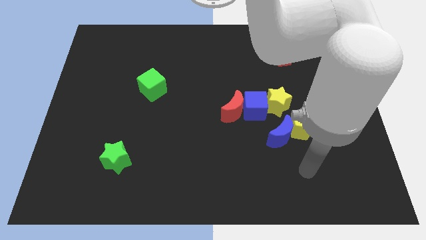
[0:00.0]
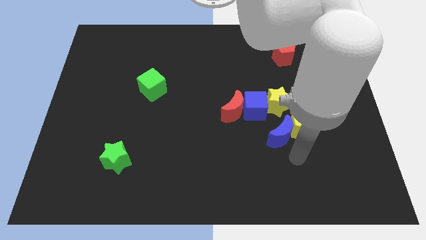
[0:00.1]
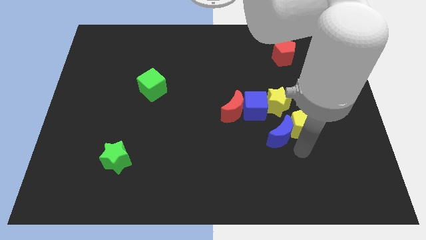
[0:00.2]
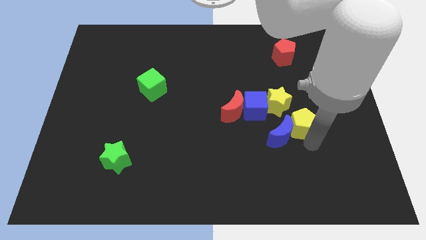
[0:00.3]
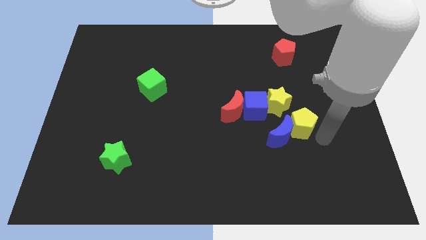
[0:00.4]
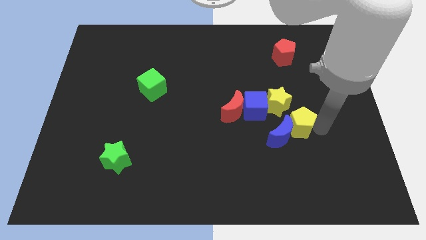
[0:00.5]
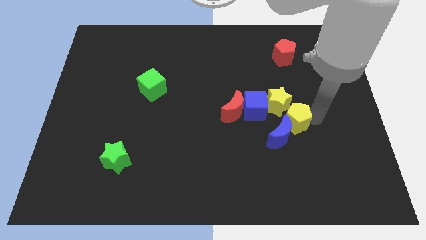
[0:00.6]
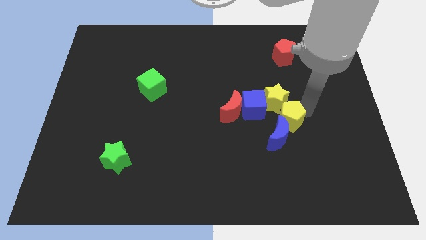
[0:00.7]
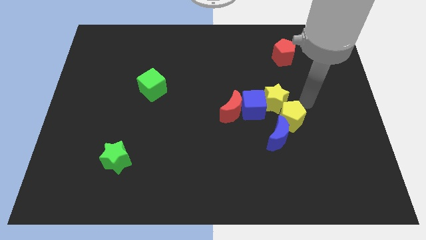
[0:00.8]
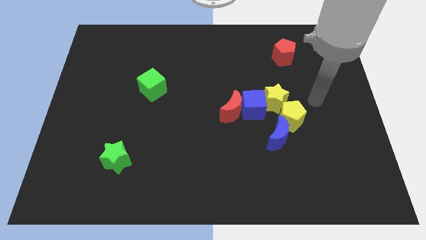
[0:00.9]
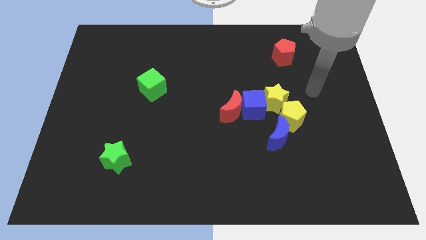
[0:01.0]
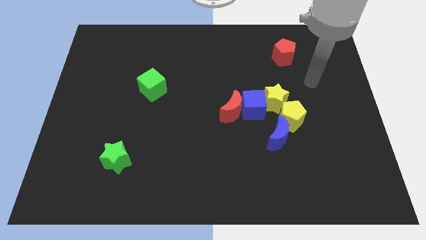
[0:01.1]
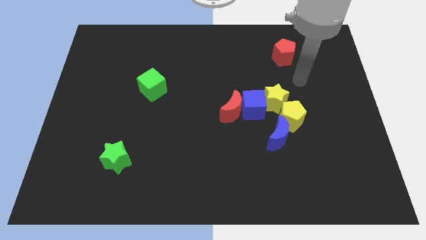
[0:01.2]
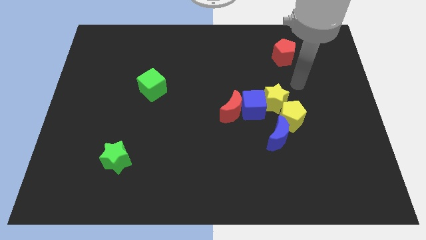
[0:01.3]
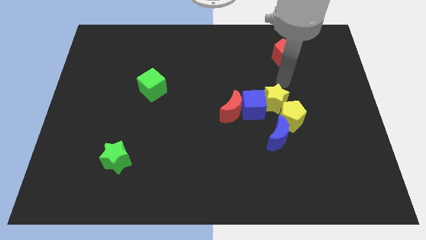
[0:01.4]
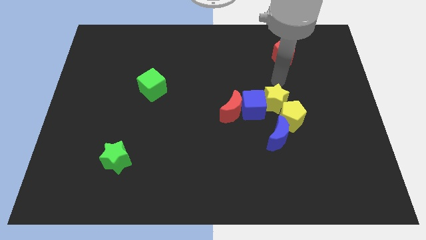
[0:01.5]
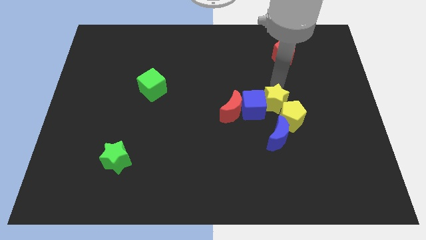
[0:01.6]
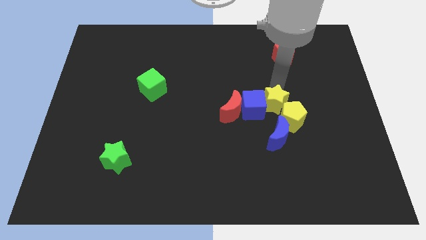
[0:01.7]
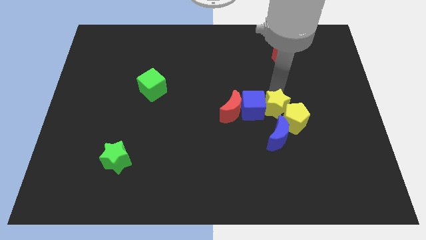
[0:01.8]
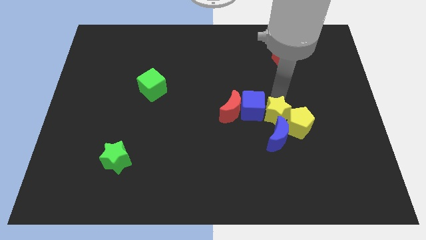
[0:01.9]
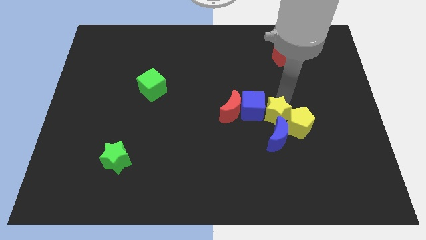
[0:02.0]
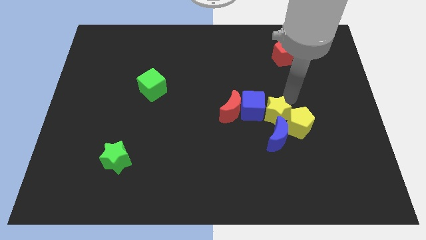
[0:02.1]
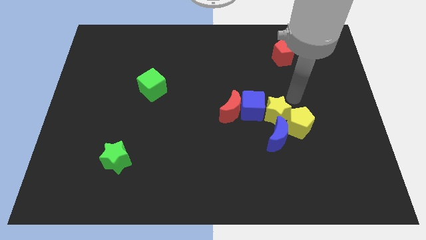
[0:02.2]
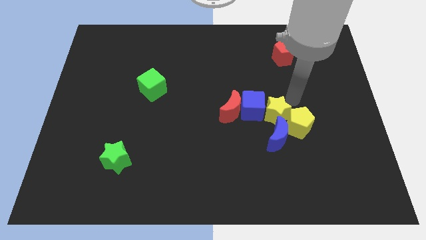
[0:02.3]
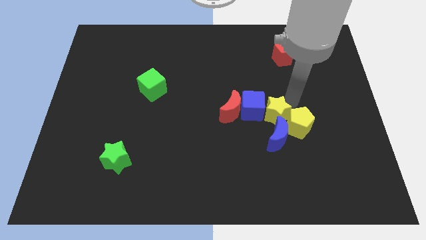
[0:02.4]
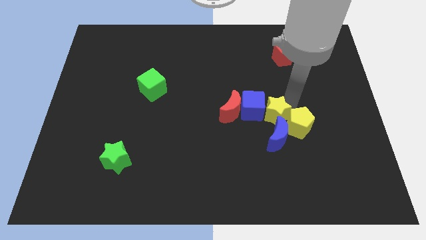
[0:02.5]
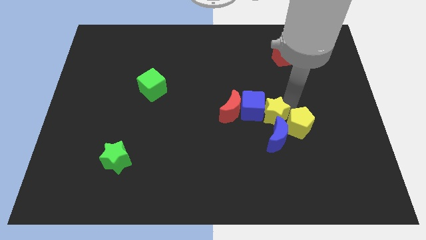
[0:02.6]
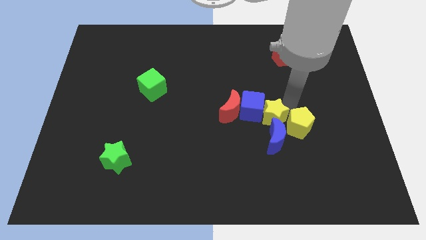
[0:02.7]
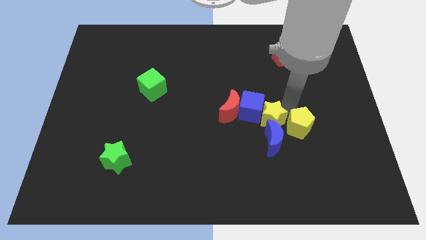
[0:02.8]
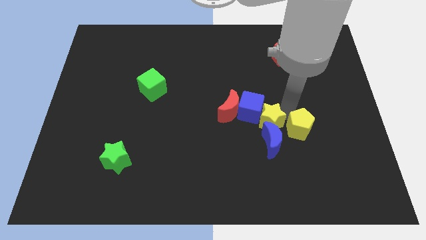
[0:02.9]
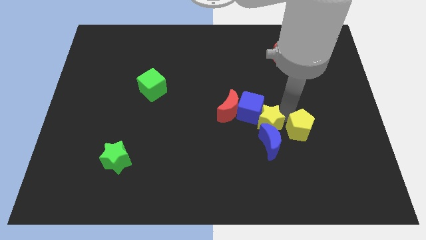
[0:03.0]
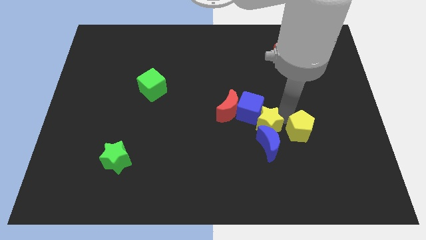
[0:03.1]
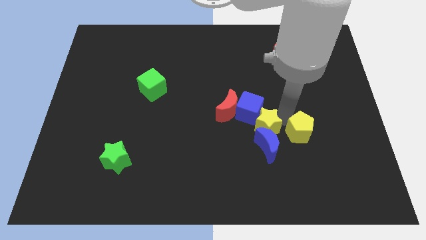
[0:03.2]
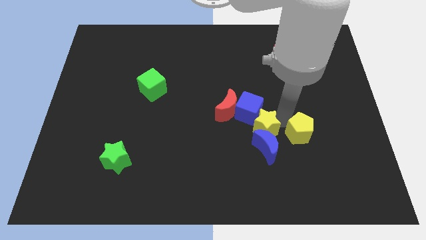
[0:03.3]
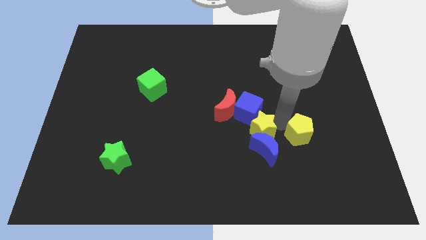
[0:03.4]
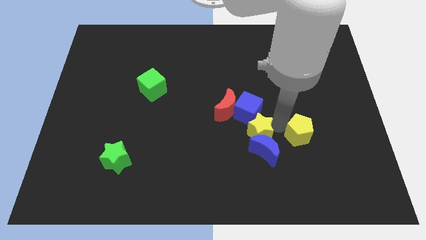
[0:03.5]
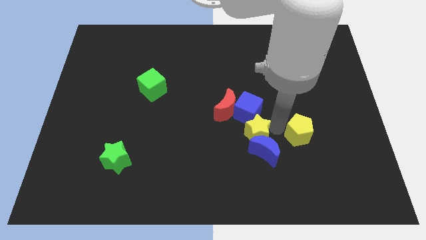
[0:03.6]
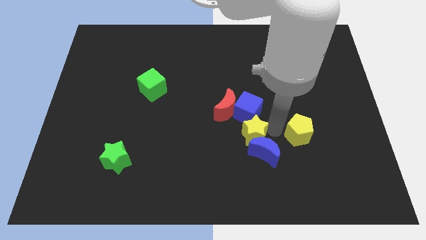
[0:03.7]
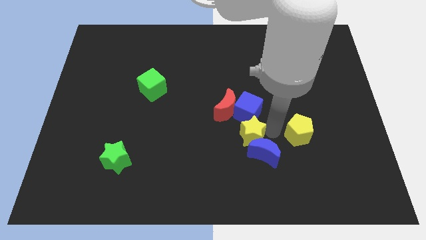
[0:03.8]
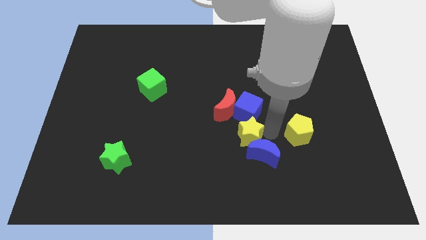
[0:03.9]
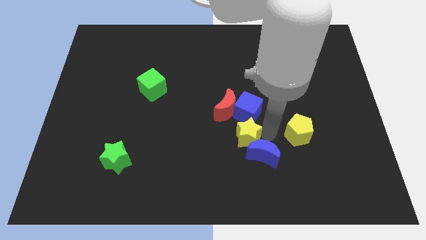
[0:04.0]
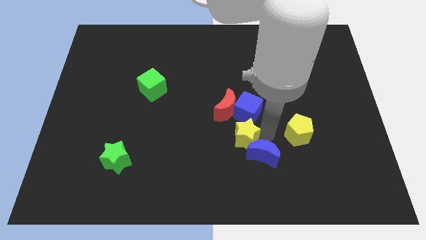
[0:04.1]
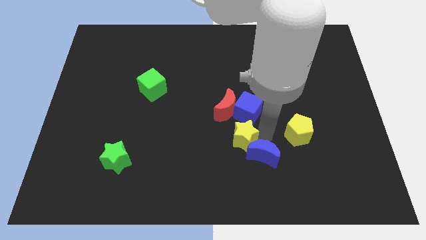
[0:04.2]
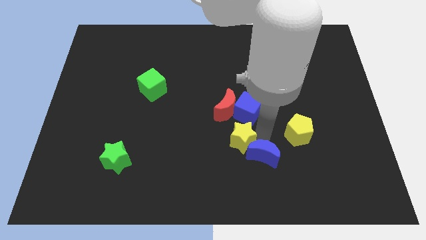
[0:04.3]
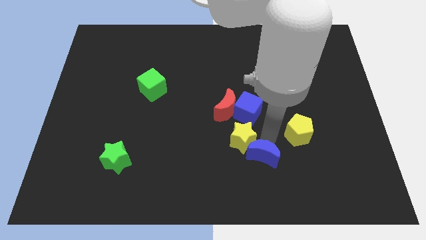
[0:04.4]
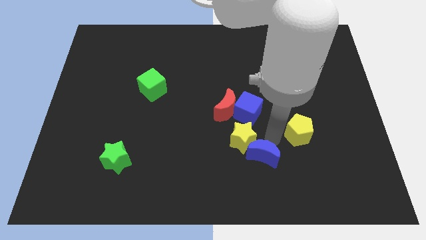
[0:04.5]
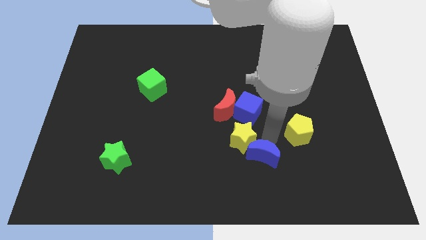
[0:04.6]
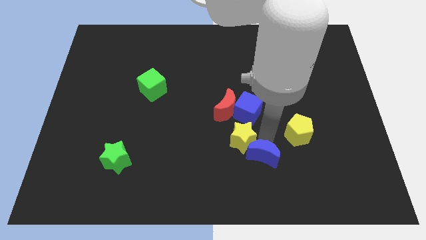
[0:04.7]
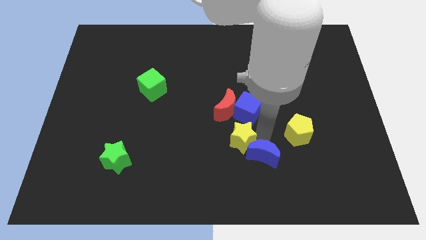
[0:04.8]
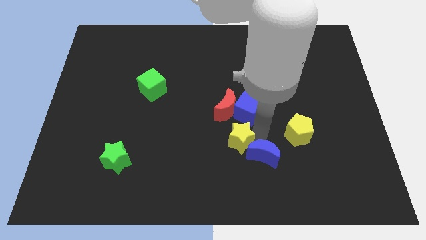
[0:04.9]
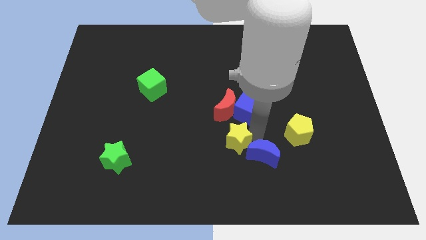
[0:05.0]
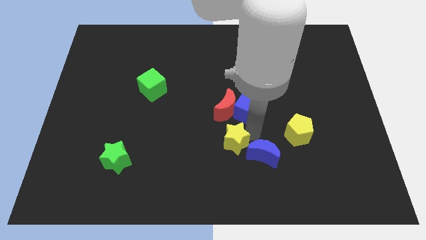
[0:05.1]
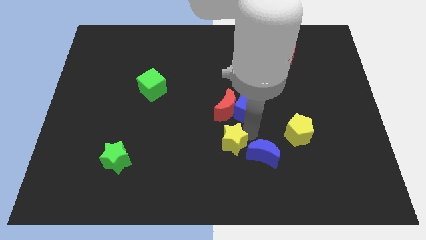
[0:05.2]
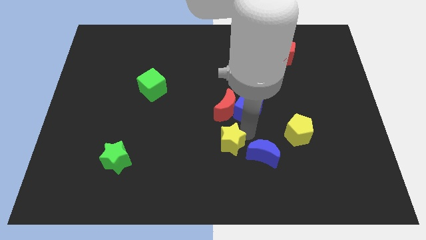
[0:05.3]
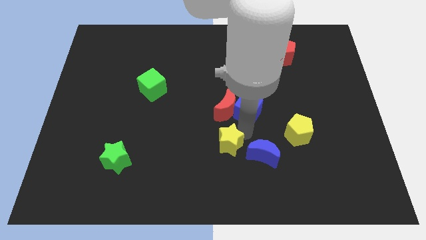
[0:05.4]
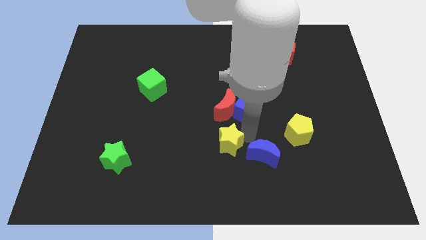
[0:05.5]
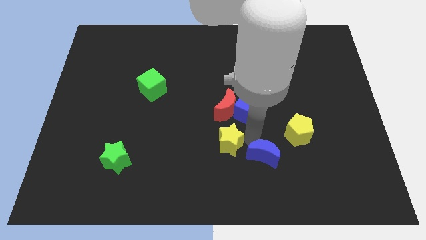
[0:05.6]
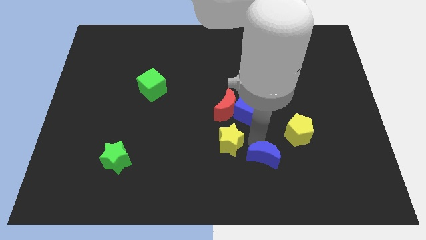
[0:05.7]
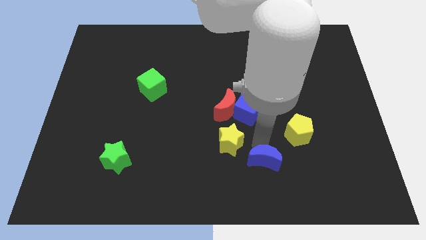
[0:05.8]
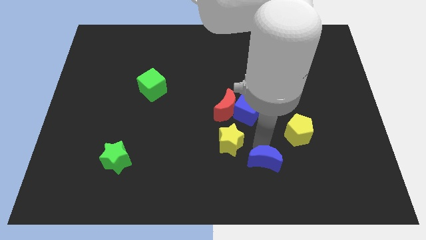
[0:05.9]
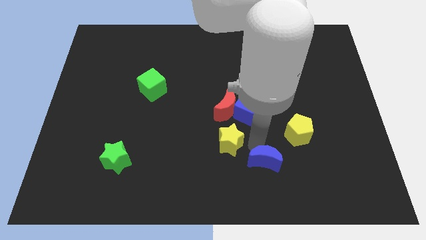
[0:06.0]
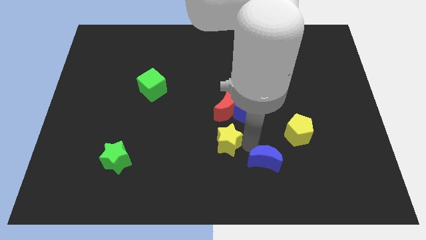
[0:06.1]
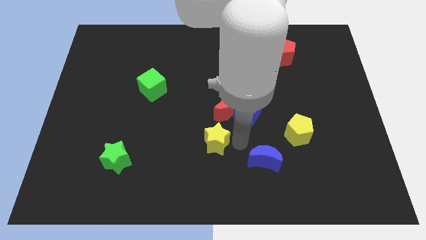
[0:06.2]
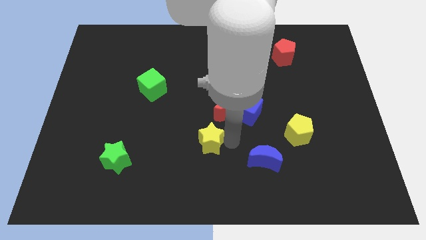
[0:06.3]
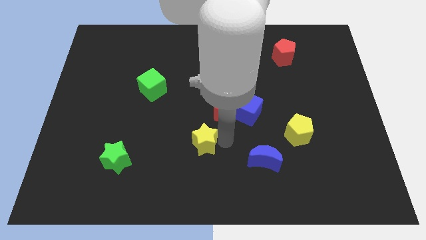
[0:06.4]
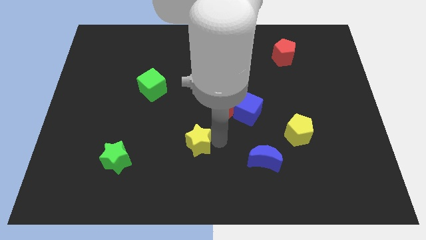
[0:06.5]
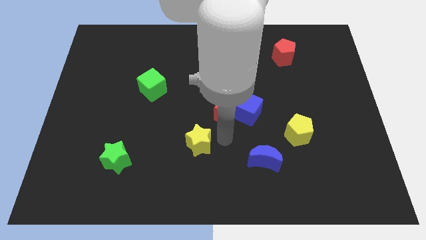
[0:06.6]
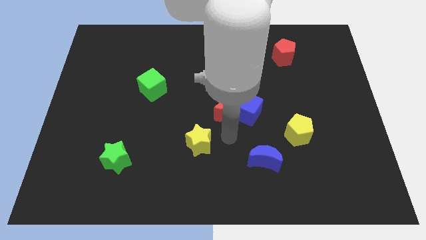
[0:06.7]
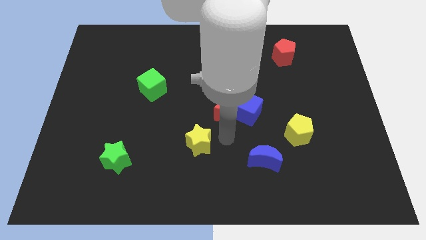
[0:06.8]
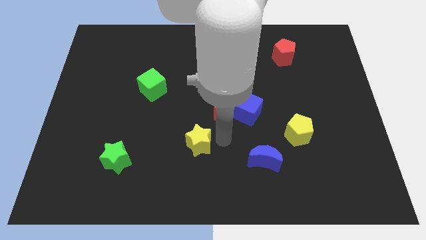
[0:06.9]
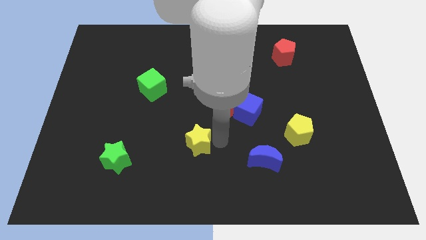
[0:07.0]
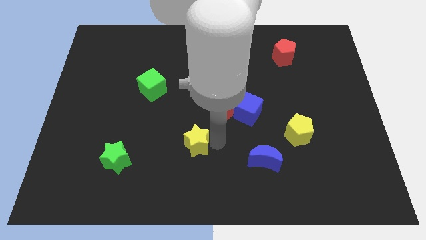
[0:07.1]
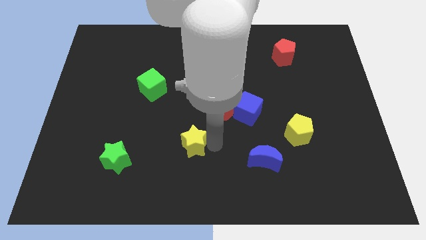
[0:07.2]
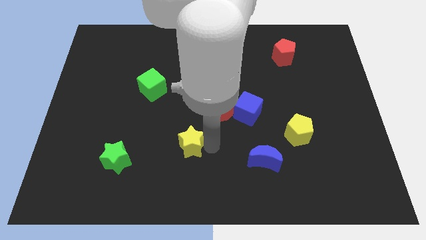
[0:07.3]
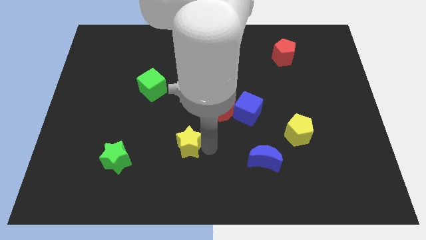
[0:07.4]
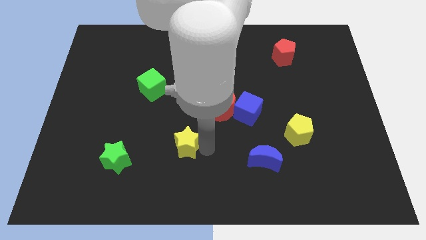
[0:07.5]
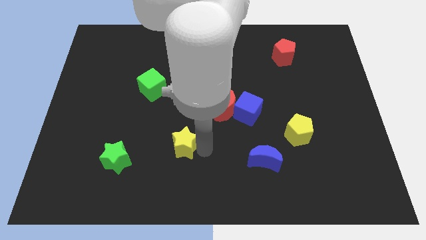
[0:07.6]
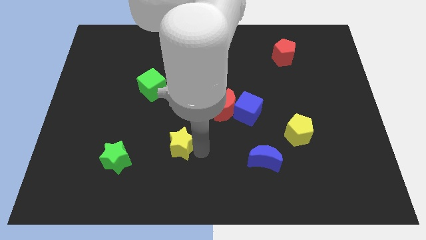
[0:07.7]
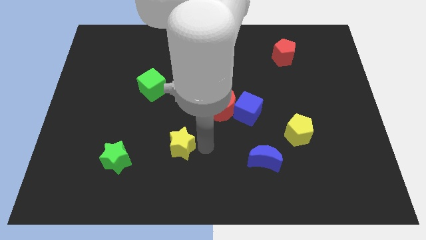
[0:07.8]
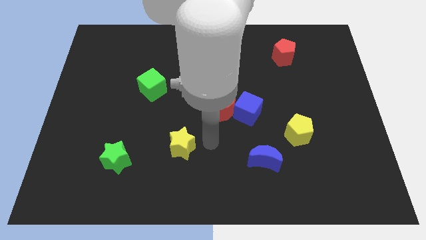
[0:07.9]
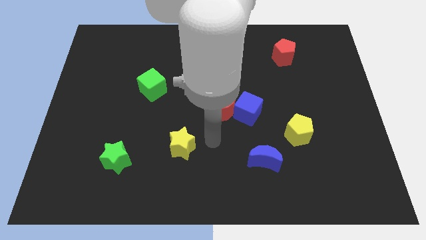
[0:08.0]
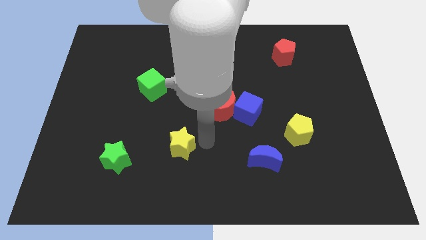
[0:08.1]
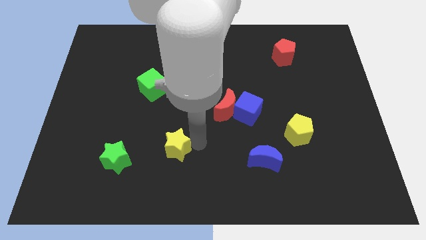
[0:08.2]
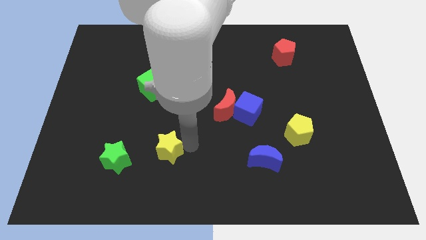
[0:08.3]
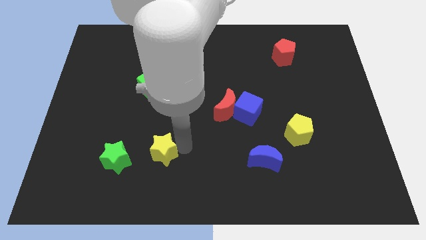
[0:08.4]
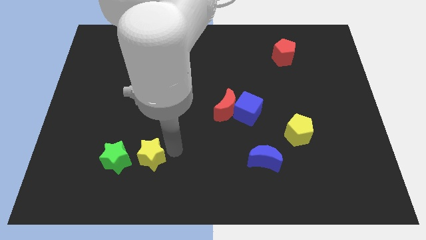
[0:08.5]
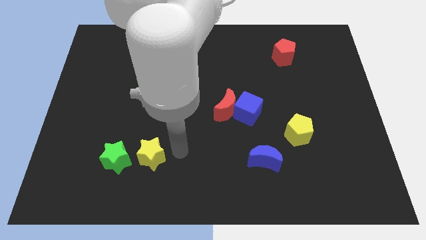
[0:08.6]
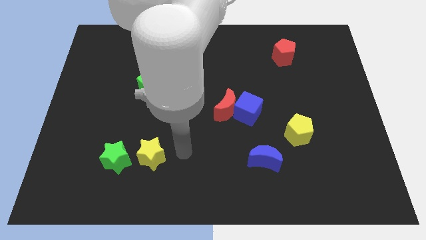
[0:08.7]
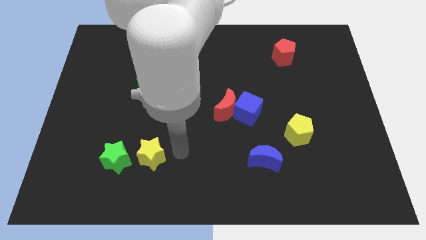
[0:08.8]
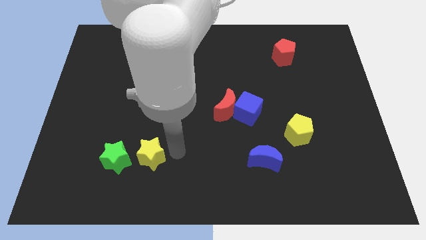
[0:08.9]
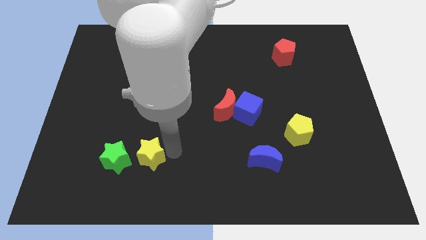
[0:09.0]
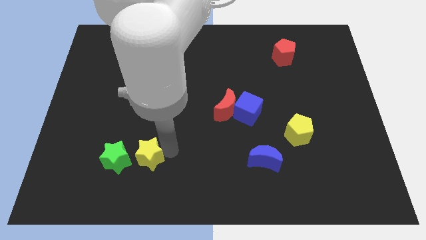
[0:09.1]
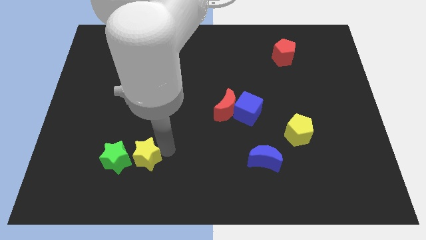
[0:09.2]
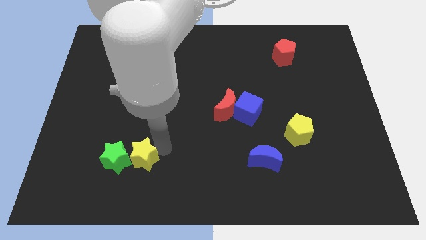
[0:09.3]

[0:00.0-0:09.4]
put the yellow star next to the green star
